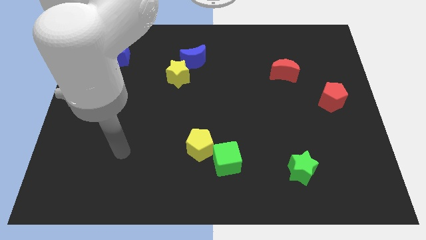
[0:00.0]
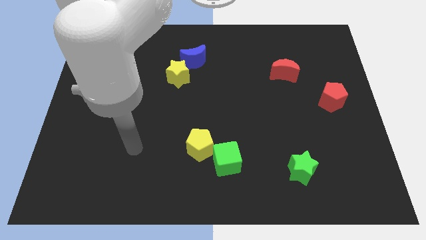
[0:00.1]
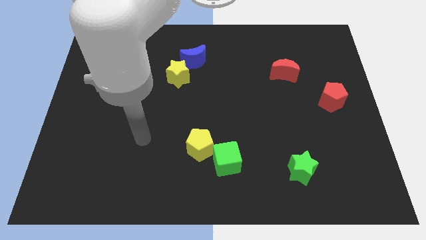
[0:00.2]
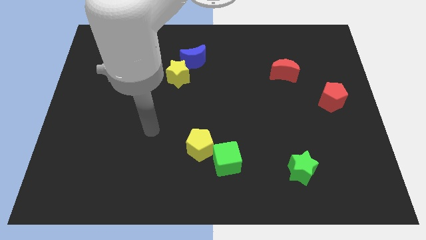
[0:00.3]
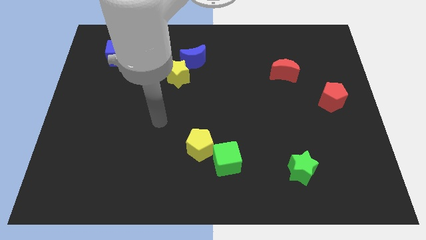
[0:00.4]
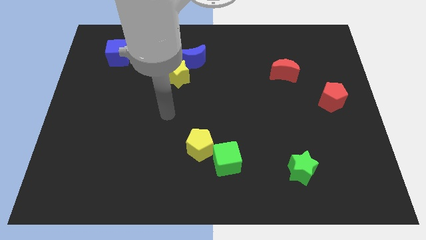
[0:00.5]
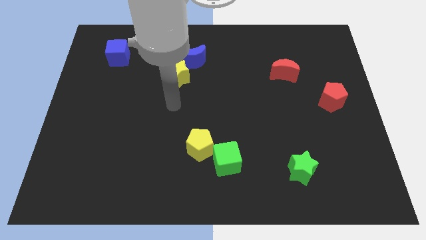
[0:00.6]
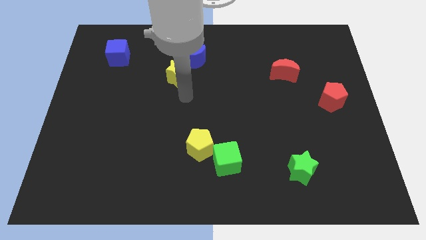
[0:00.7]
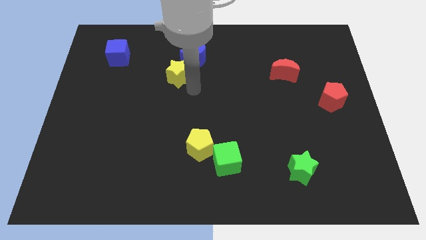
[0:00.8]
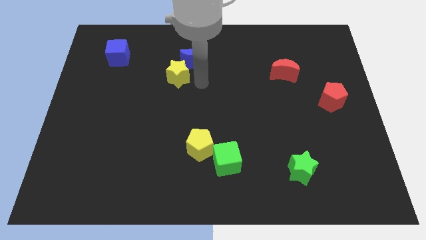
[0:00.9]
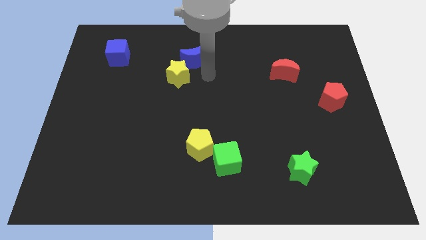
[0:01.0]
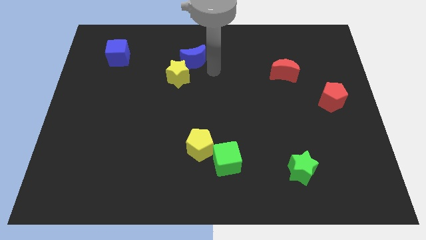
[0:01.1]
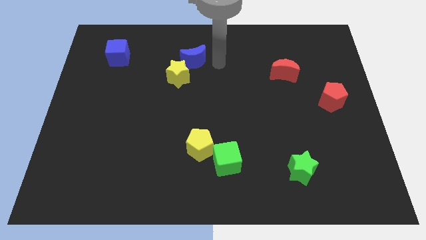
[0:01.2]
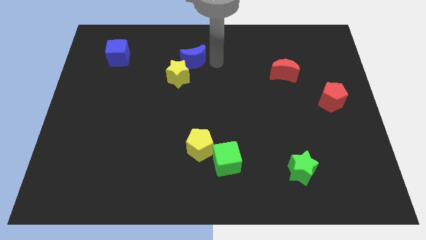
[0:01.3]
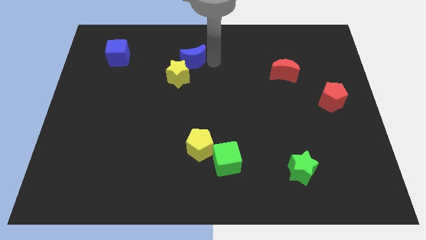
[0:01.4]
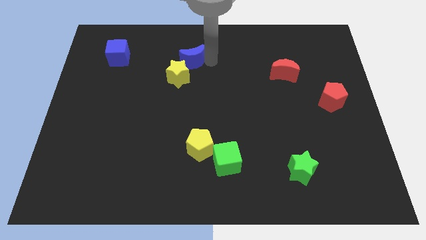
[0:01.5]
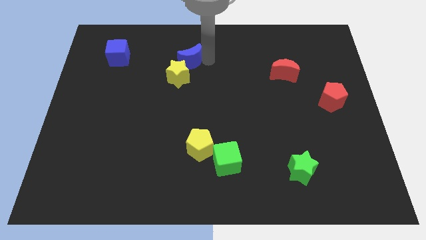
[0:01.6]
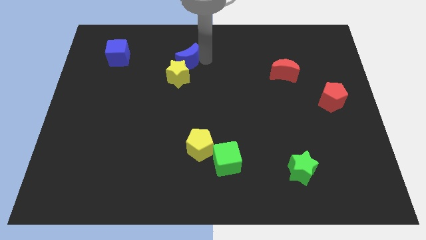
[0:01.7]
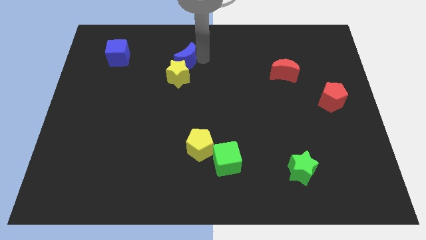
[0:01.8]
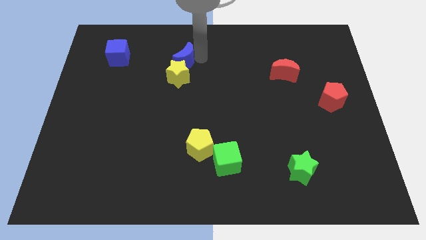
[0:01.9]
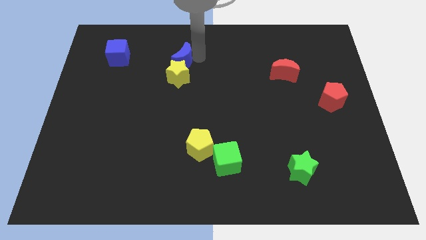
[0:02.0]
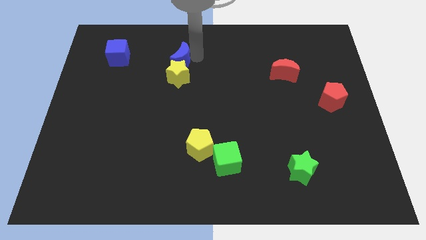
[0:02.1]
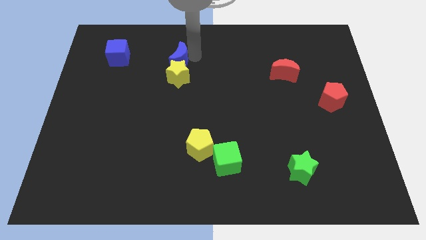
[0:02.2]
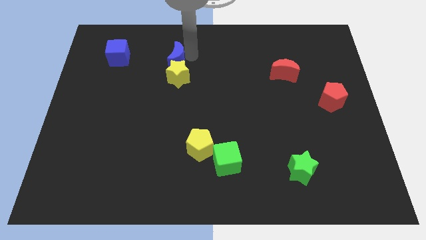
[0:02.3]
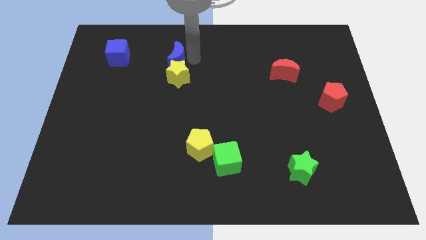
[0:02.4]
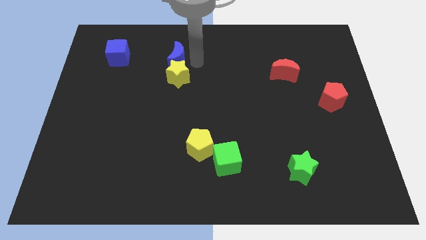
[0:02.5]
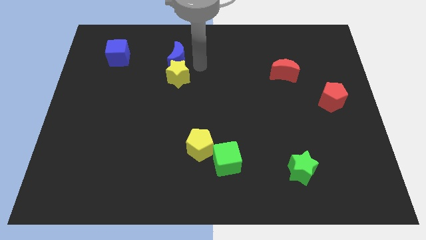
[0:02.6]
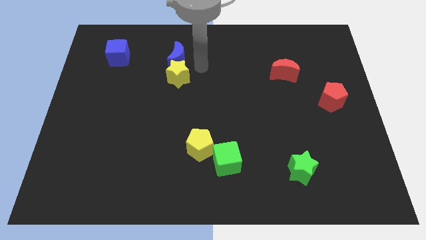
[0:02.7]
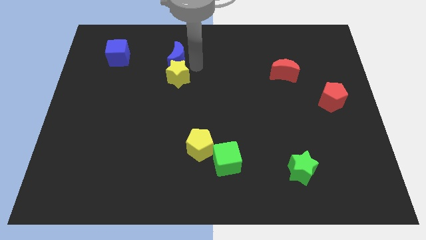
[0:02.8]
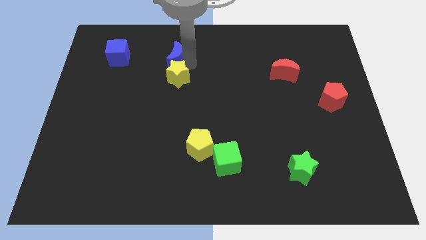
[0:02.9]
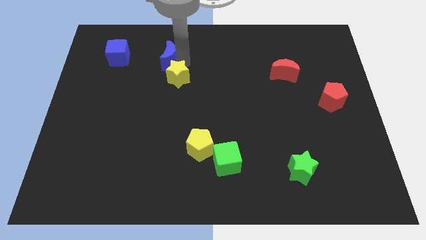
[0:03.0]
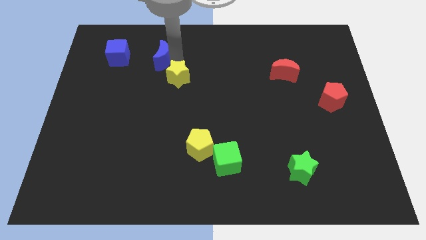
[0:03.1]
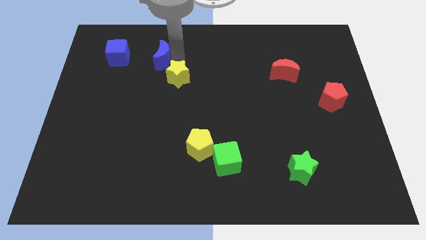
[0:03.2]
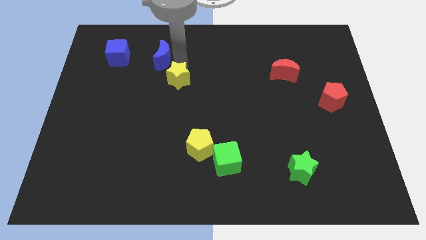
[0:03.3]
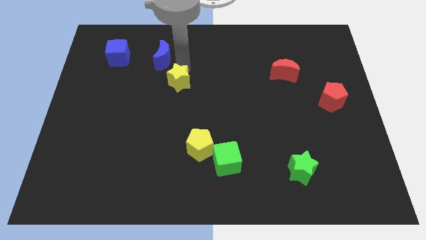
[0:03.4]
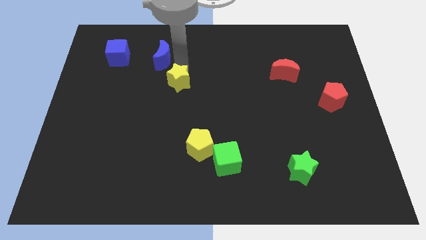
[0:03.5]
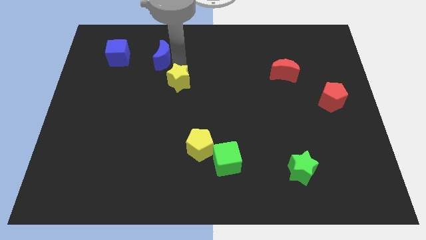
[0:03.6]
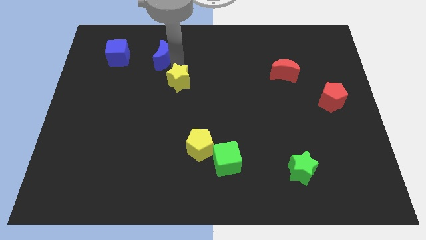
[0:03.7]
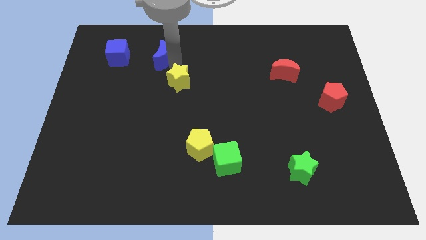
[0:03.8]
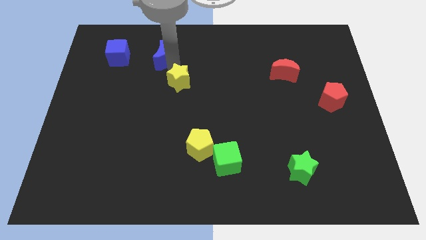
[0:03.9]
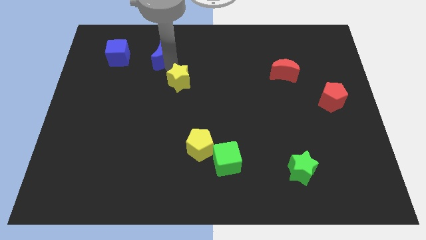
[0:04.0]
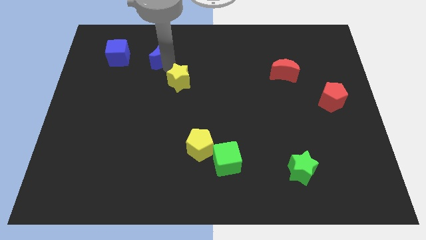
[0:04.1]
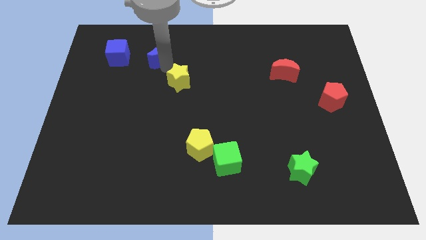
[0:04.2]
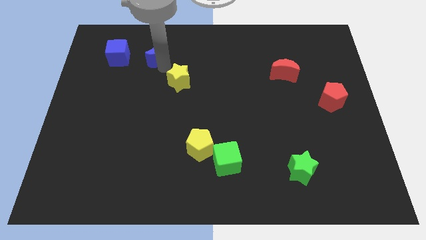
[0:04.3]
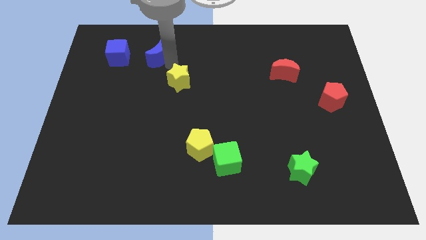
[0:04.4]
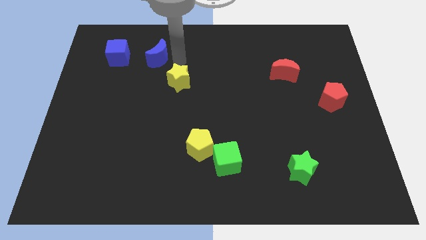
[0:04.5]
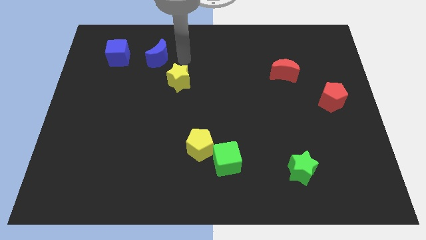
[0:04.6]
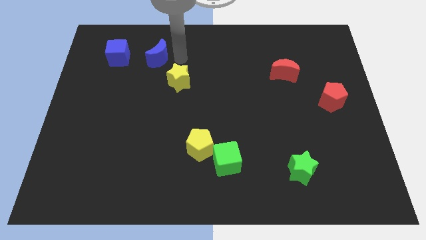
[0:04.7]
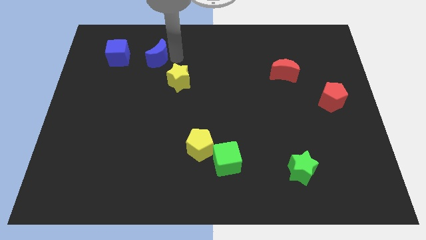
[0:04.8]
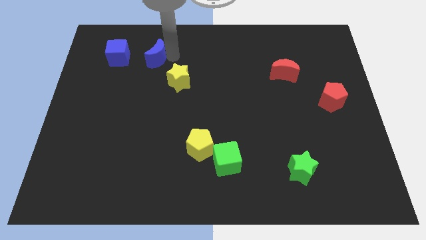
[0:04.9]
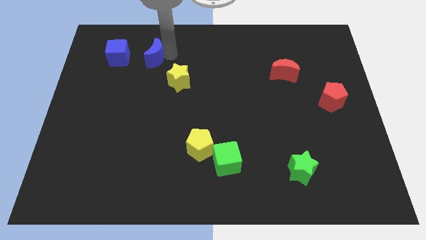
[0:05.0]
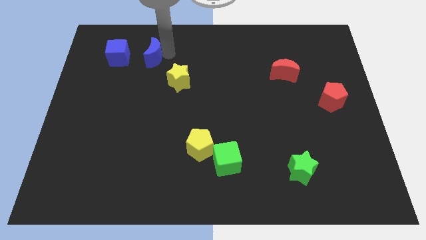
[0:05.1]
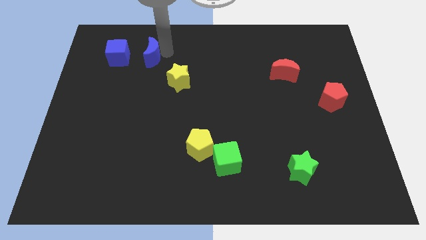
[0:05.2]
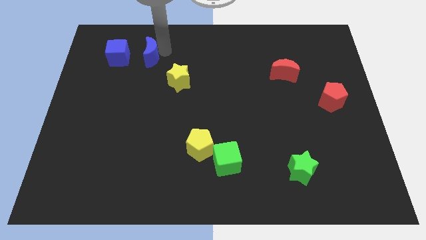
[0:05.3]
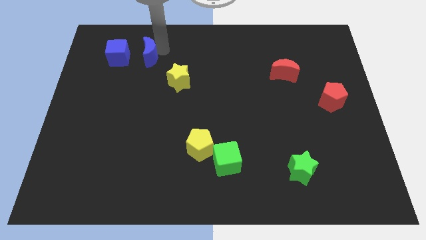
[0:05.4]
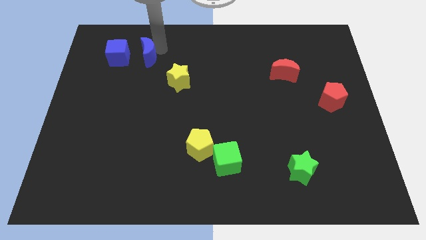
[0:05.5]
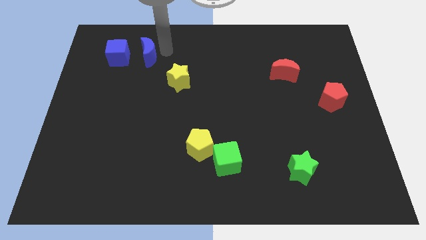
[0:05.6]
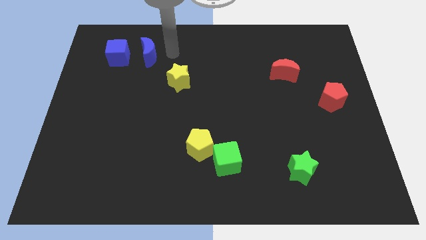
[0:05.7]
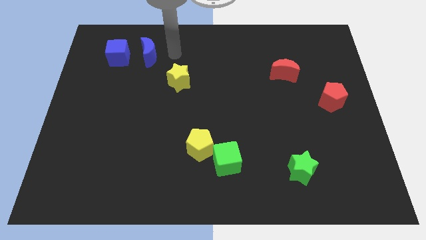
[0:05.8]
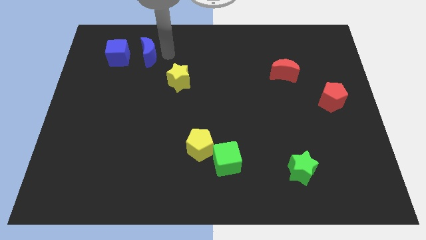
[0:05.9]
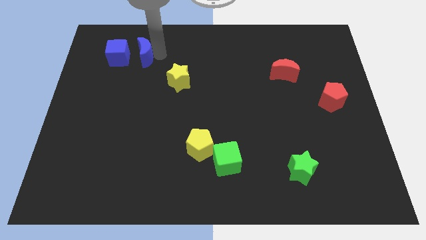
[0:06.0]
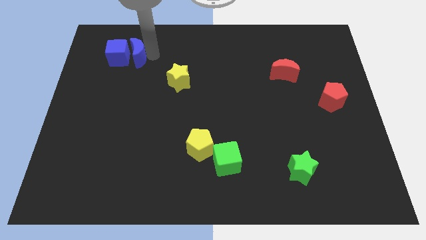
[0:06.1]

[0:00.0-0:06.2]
push the blue moon to the blue cube

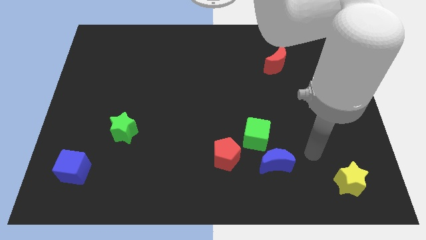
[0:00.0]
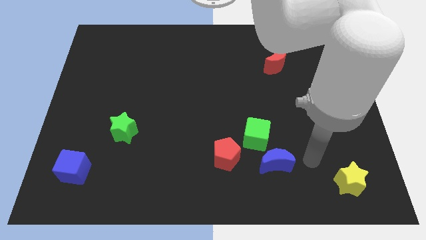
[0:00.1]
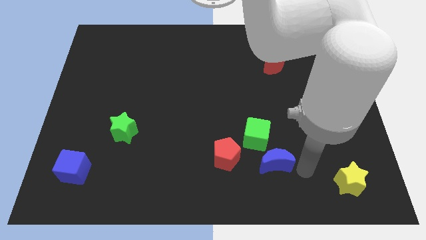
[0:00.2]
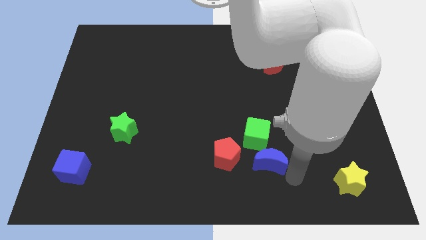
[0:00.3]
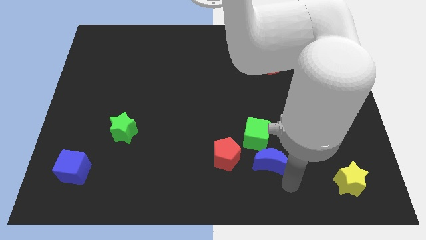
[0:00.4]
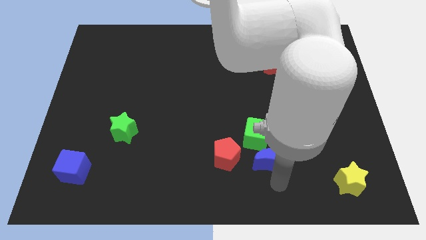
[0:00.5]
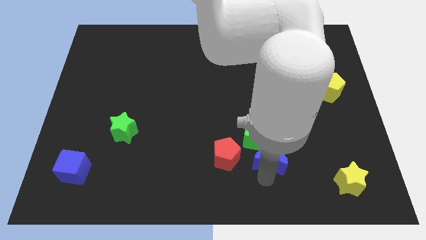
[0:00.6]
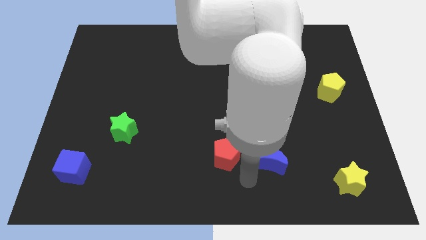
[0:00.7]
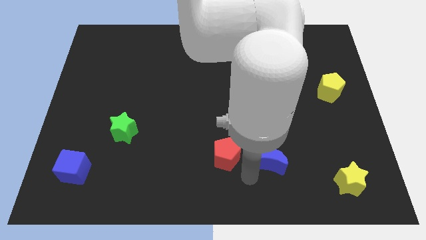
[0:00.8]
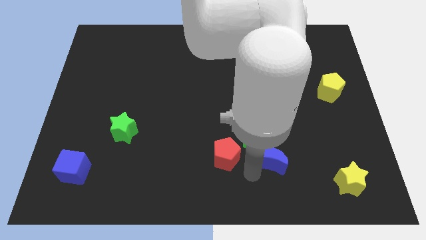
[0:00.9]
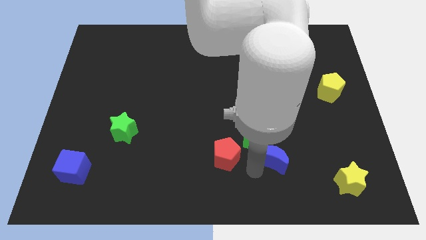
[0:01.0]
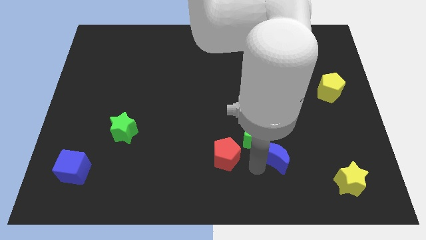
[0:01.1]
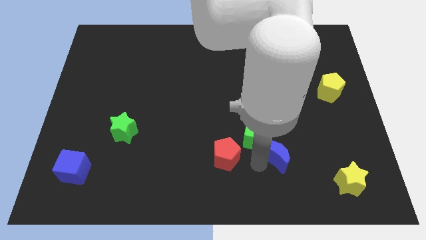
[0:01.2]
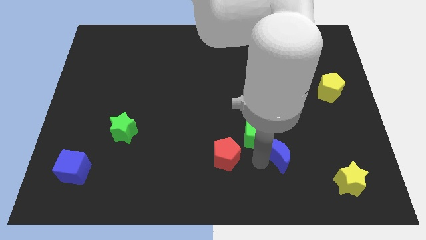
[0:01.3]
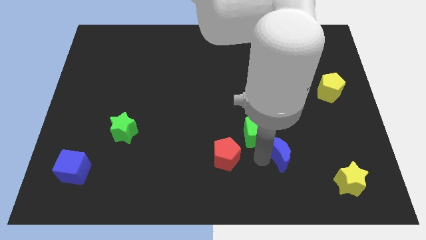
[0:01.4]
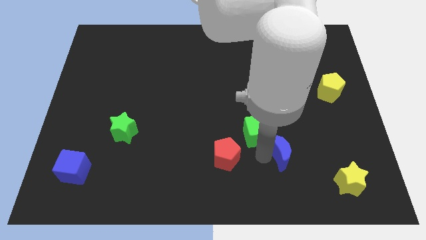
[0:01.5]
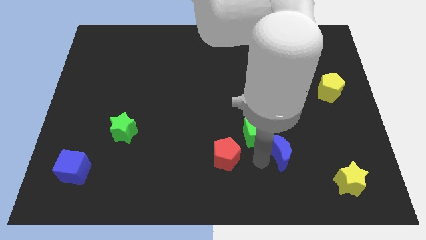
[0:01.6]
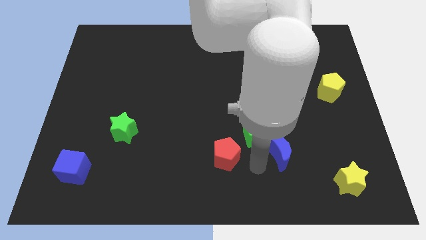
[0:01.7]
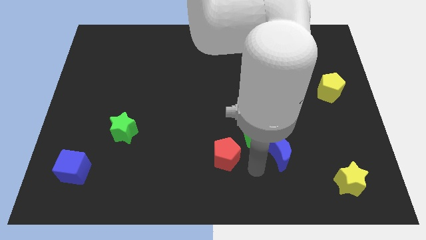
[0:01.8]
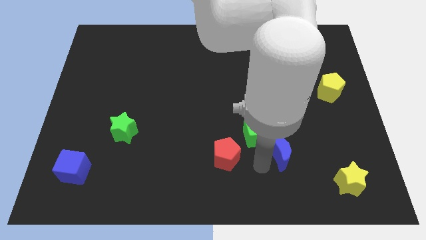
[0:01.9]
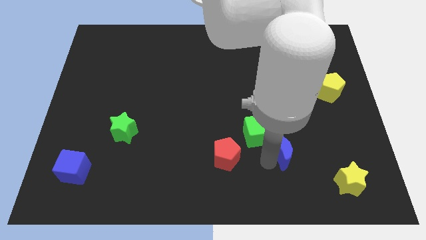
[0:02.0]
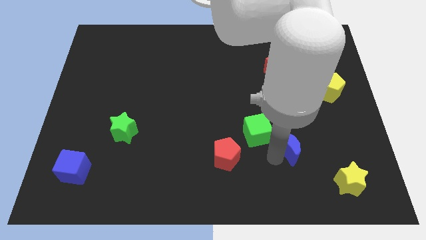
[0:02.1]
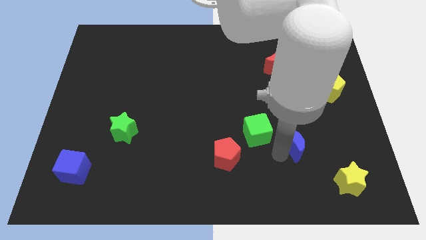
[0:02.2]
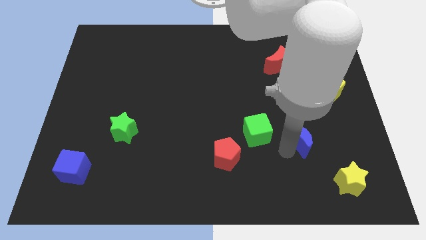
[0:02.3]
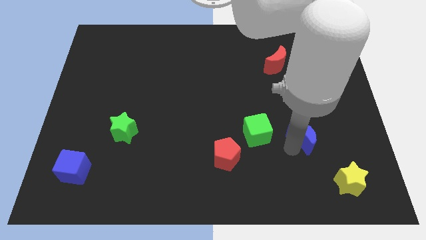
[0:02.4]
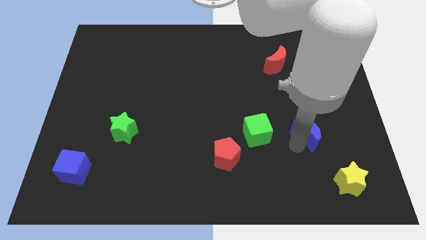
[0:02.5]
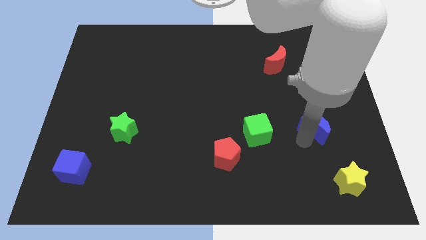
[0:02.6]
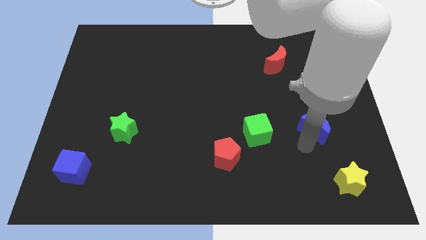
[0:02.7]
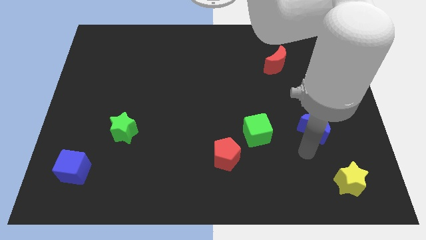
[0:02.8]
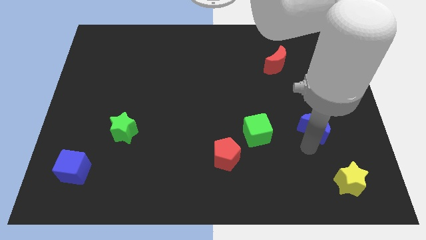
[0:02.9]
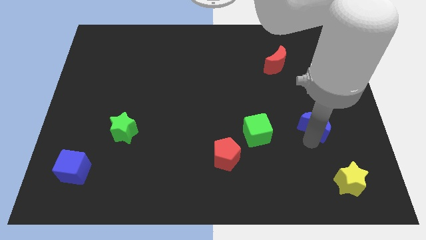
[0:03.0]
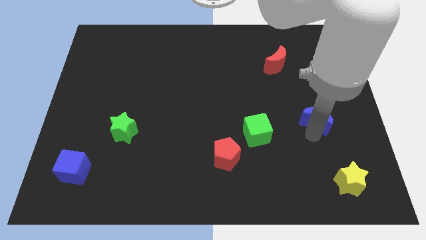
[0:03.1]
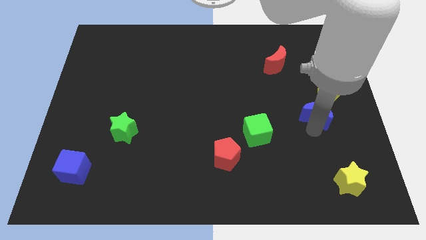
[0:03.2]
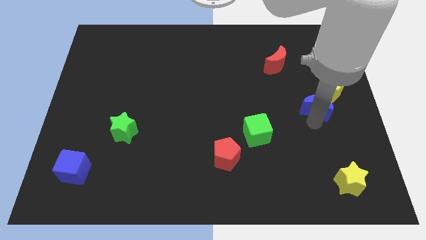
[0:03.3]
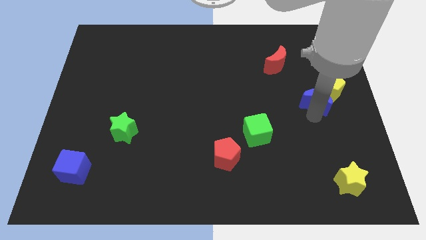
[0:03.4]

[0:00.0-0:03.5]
slide the blue moon towards the yellow pentagon
